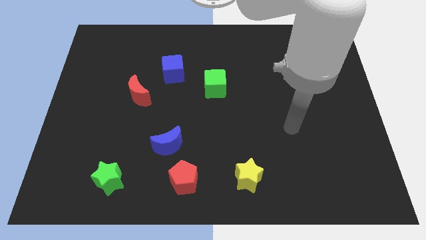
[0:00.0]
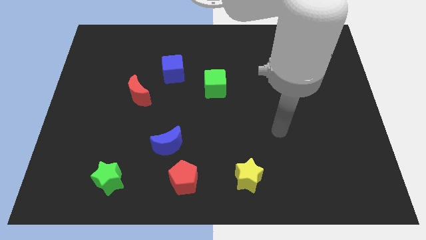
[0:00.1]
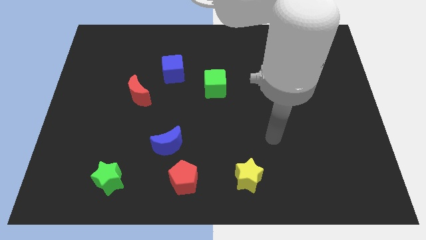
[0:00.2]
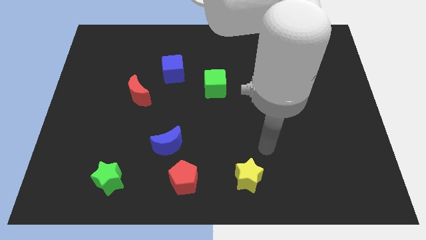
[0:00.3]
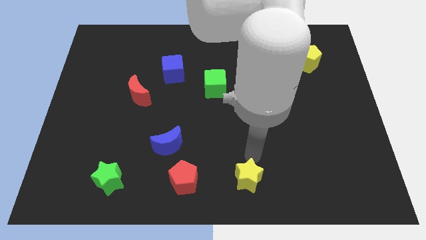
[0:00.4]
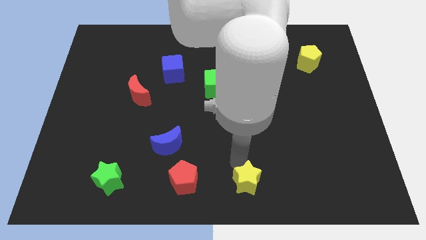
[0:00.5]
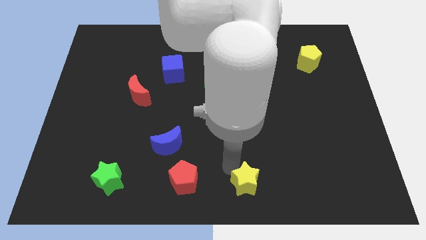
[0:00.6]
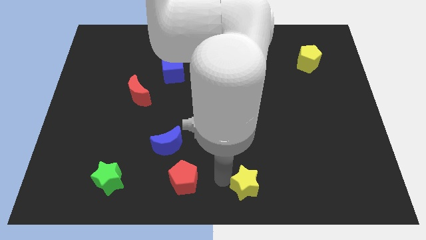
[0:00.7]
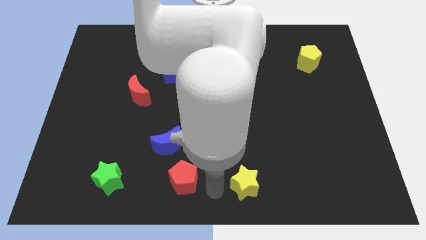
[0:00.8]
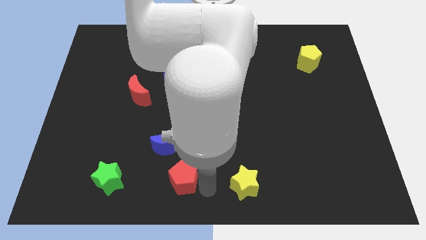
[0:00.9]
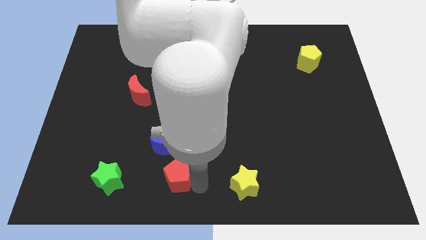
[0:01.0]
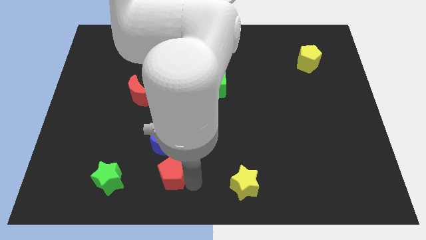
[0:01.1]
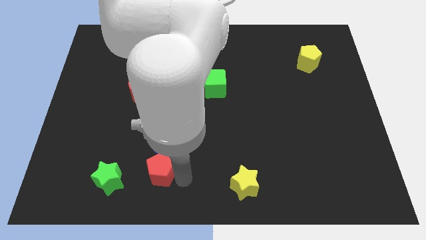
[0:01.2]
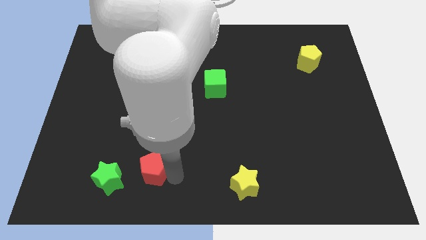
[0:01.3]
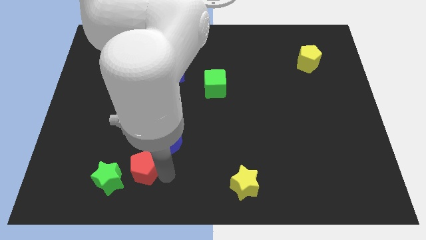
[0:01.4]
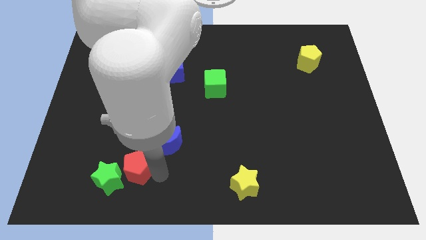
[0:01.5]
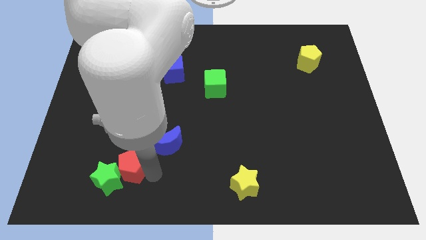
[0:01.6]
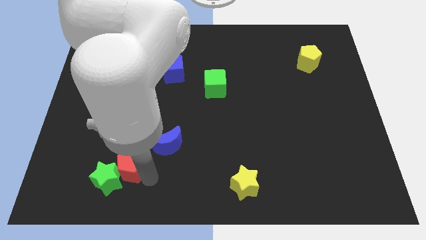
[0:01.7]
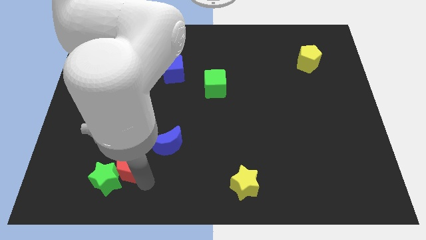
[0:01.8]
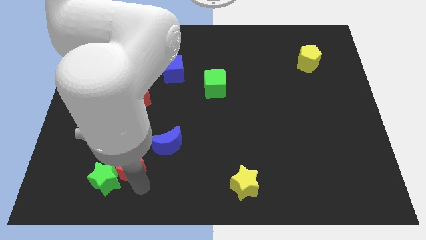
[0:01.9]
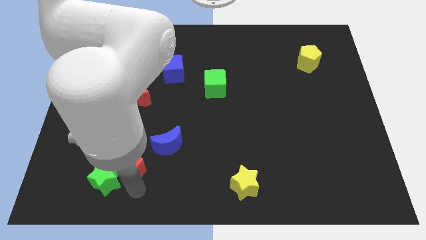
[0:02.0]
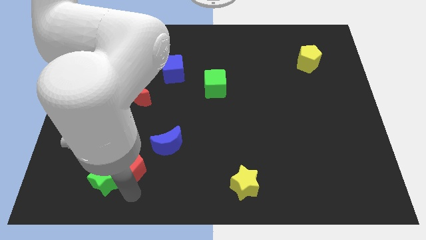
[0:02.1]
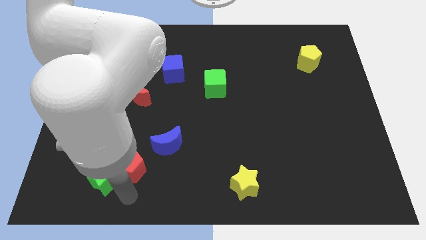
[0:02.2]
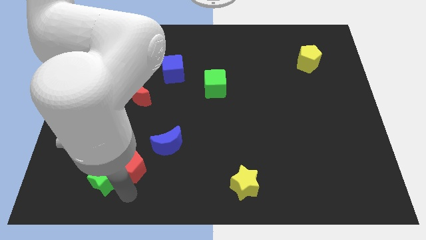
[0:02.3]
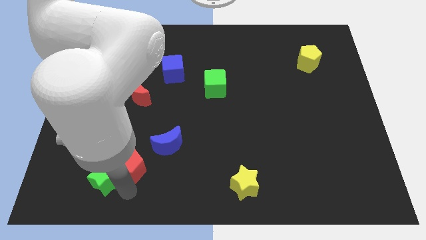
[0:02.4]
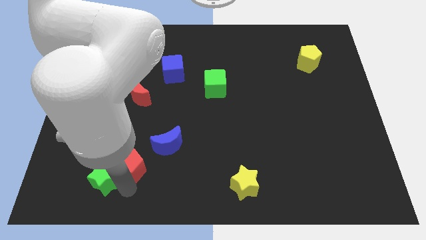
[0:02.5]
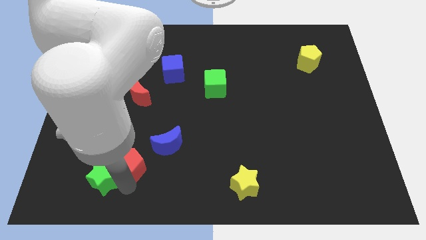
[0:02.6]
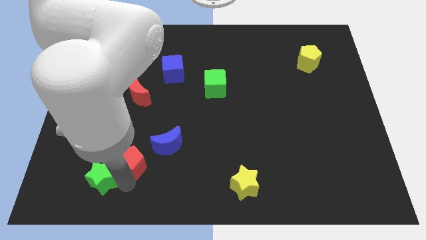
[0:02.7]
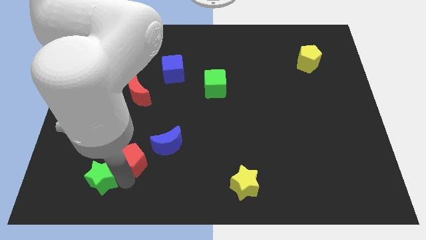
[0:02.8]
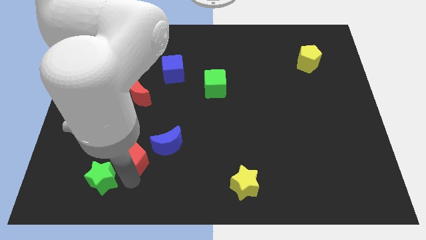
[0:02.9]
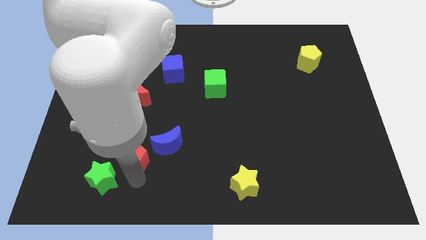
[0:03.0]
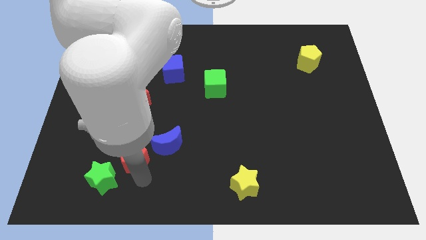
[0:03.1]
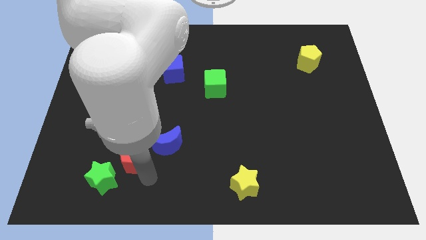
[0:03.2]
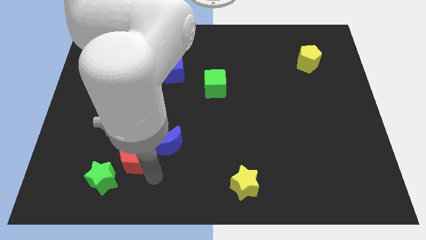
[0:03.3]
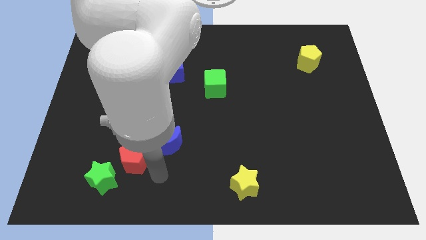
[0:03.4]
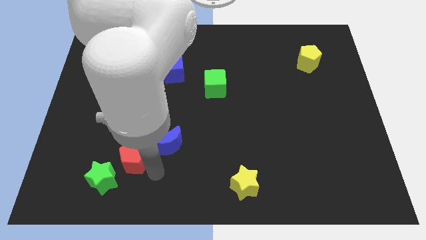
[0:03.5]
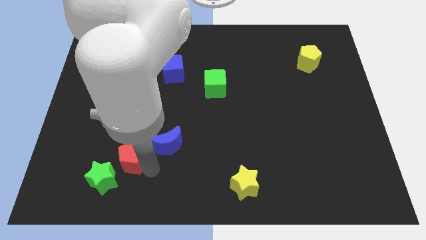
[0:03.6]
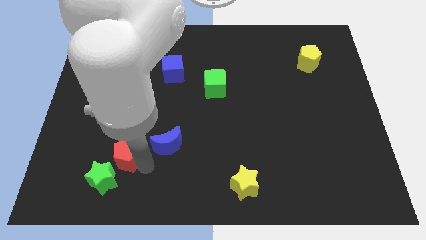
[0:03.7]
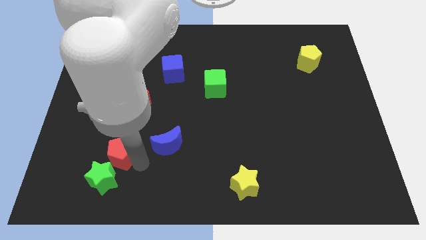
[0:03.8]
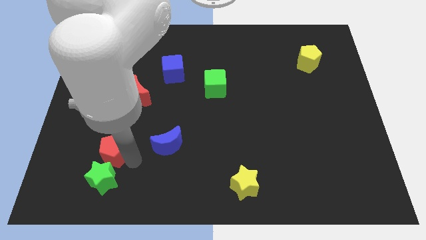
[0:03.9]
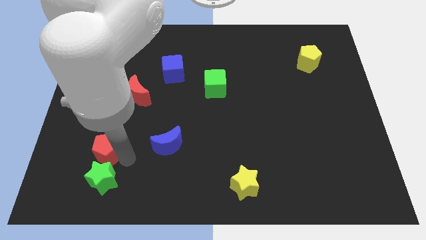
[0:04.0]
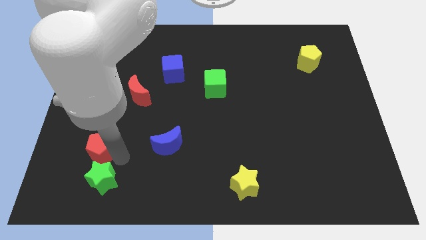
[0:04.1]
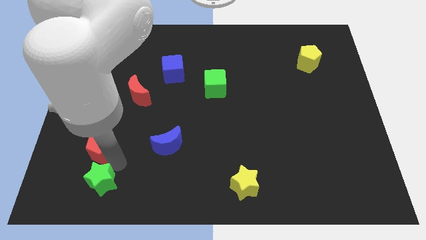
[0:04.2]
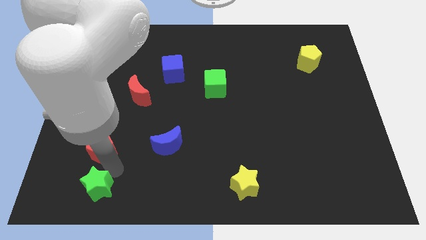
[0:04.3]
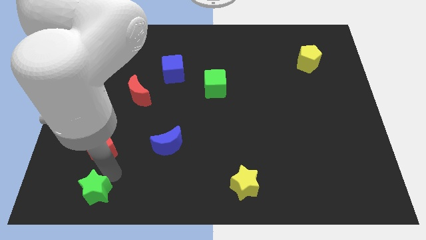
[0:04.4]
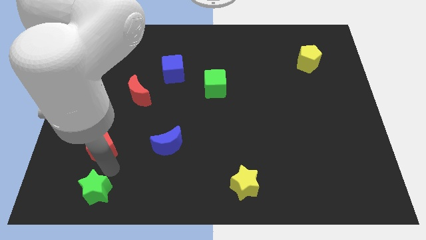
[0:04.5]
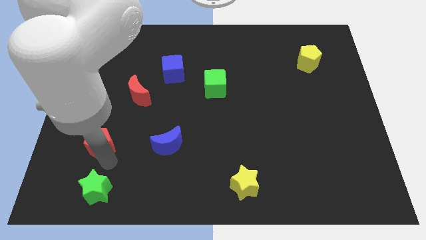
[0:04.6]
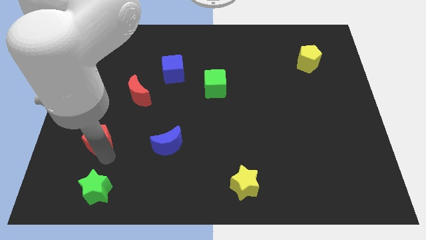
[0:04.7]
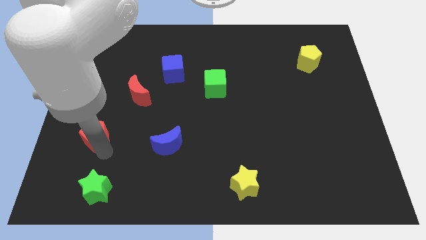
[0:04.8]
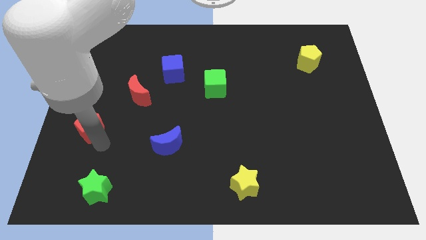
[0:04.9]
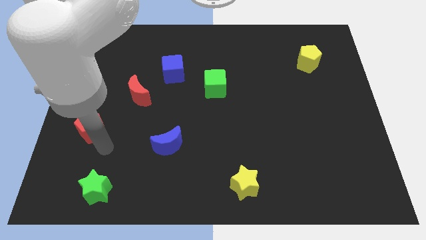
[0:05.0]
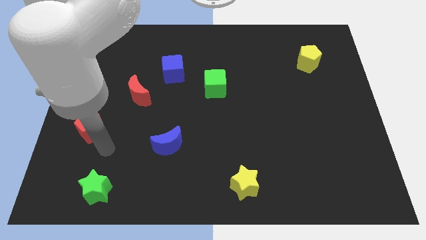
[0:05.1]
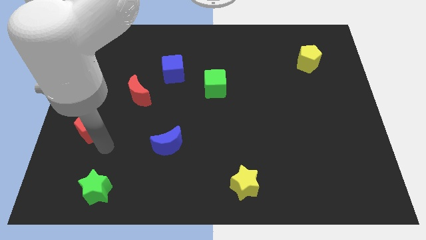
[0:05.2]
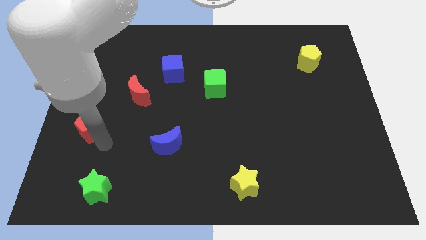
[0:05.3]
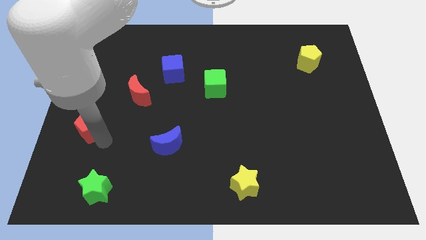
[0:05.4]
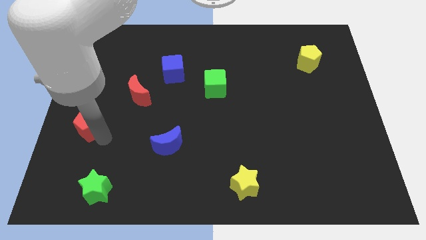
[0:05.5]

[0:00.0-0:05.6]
push the red pentagon to the left side

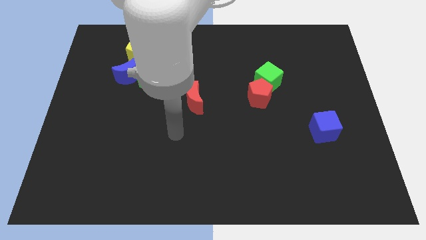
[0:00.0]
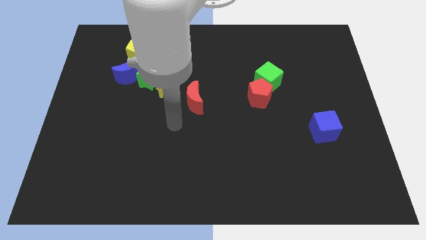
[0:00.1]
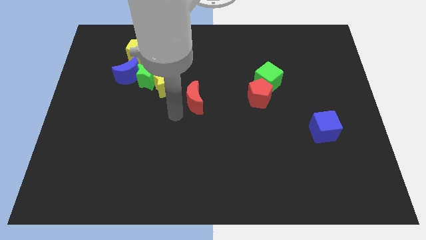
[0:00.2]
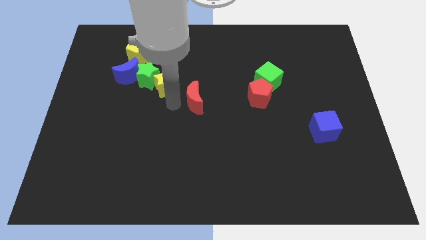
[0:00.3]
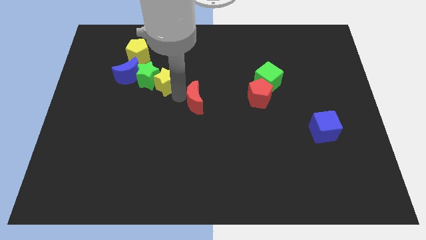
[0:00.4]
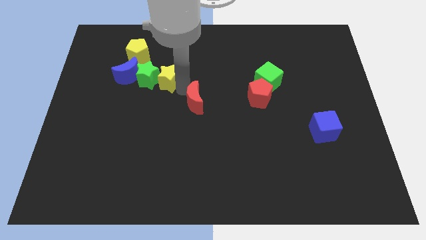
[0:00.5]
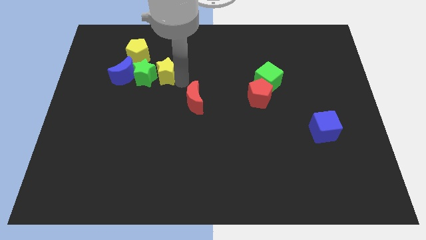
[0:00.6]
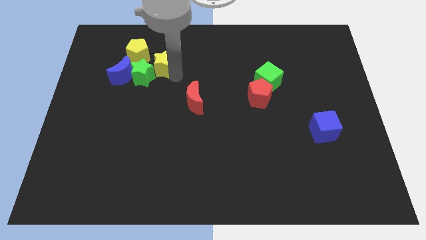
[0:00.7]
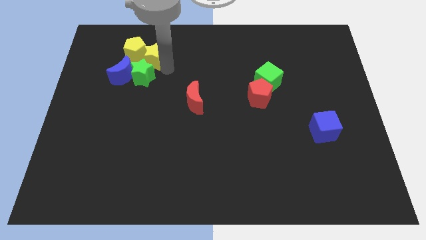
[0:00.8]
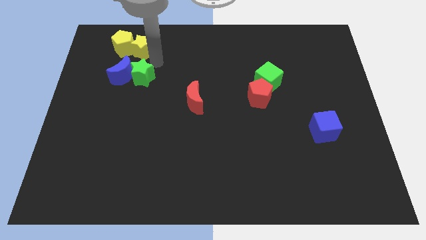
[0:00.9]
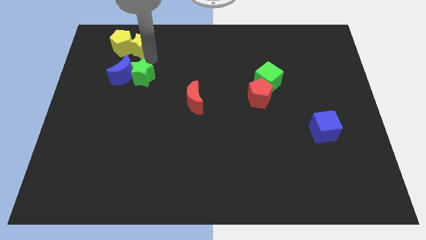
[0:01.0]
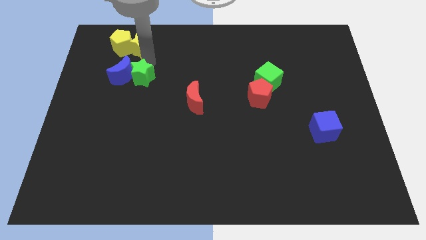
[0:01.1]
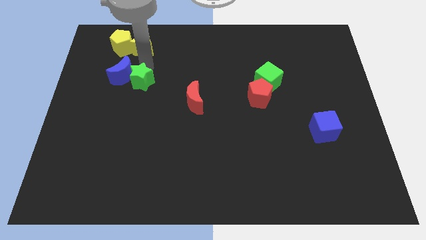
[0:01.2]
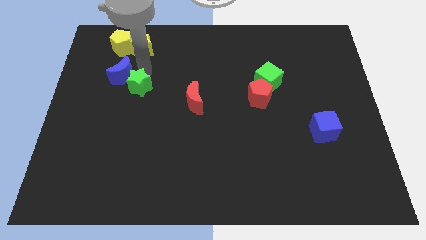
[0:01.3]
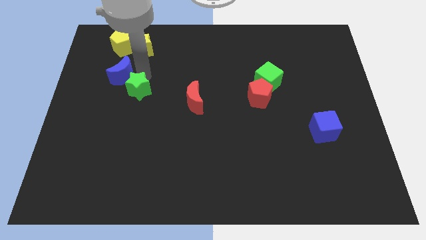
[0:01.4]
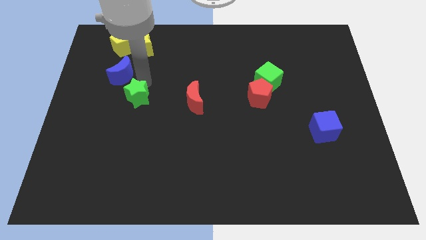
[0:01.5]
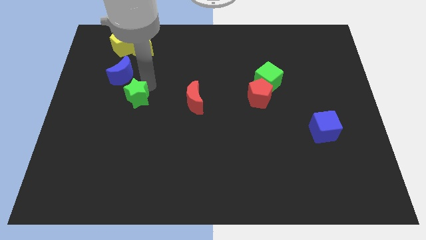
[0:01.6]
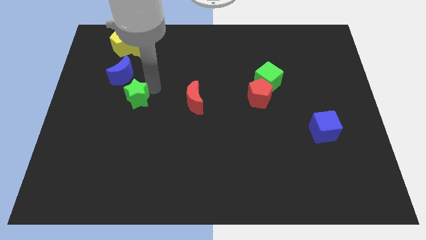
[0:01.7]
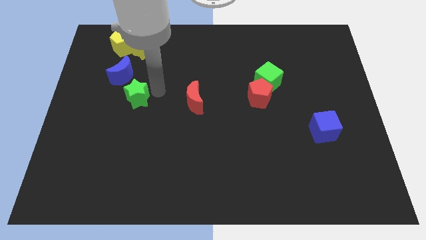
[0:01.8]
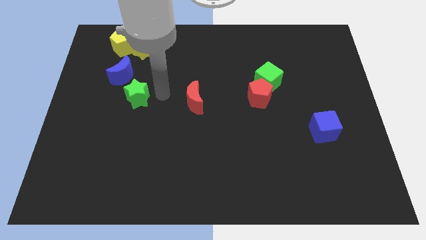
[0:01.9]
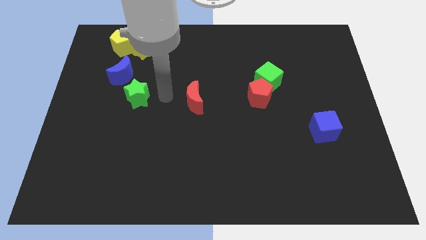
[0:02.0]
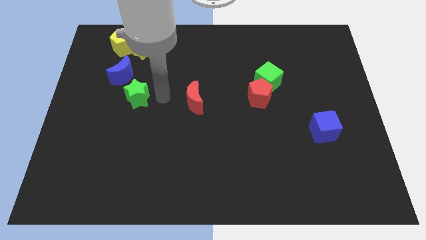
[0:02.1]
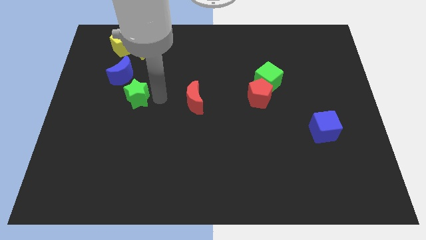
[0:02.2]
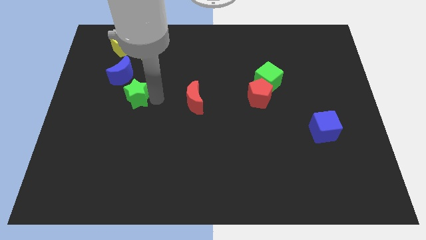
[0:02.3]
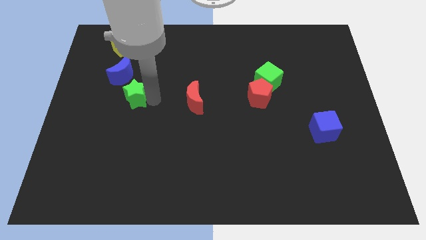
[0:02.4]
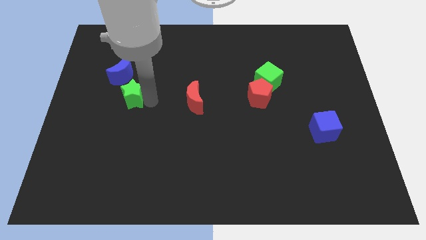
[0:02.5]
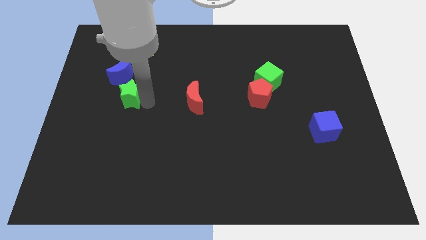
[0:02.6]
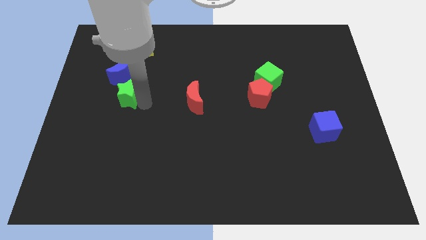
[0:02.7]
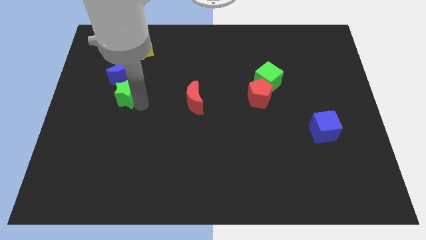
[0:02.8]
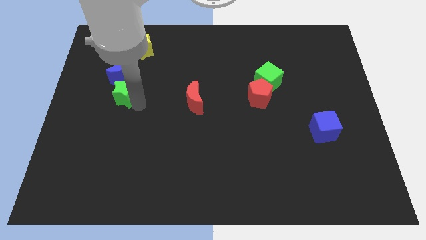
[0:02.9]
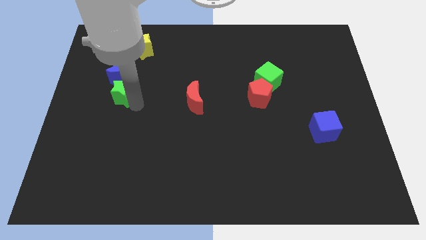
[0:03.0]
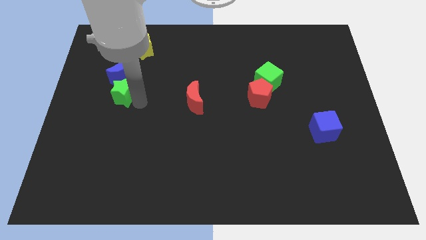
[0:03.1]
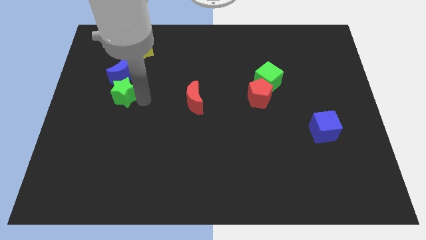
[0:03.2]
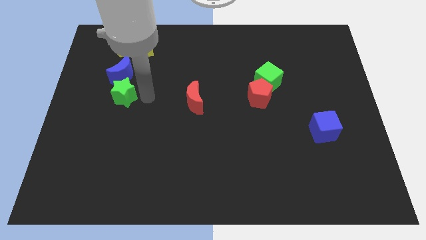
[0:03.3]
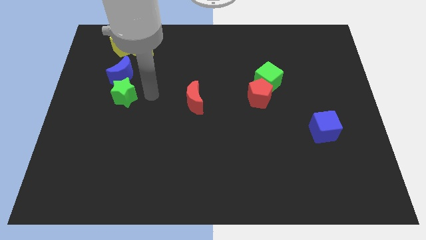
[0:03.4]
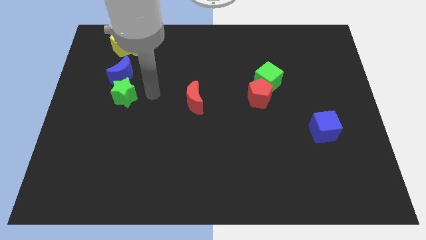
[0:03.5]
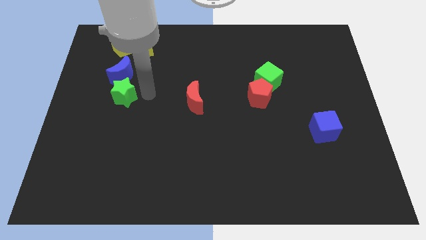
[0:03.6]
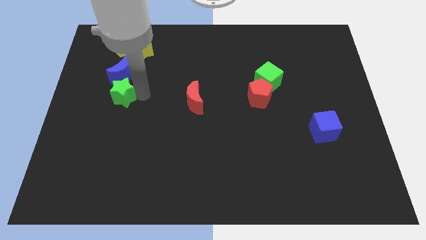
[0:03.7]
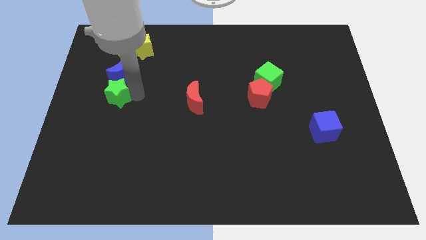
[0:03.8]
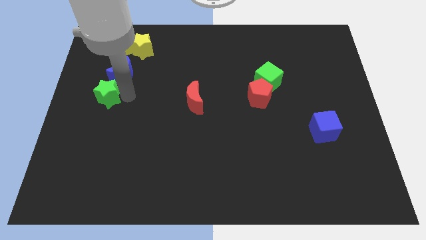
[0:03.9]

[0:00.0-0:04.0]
push the green star to the center left
